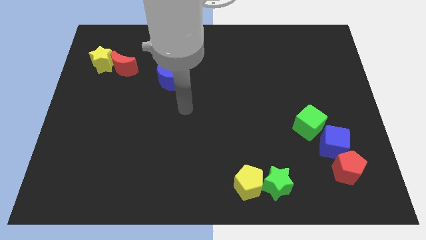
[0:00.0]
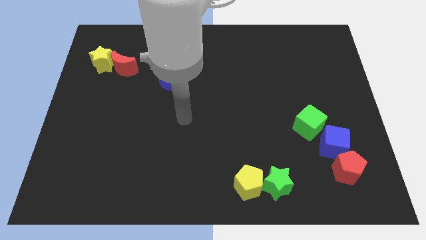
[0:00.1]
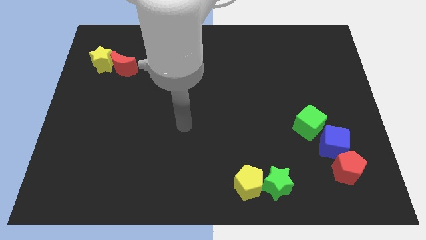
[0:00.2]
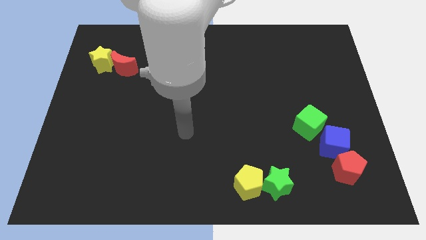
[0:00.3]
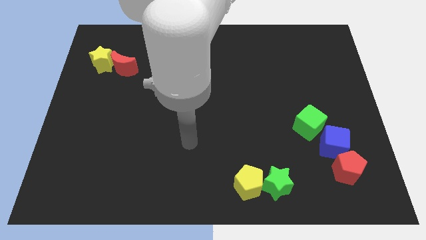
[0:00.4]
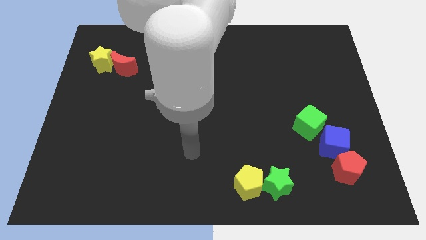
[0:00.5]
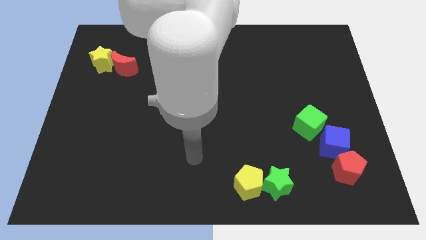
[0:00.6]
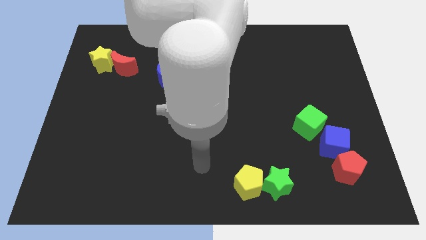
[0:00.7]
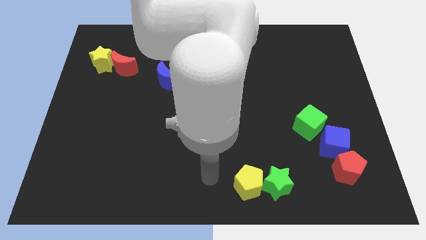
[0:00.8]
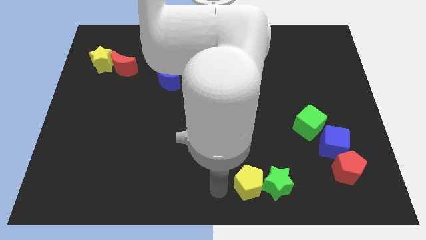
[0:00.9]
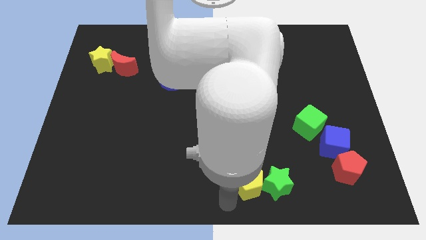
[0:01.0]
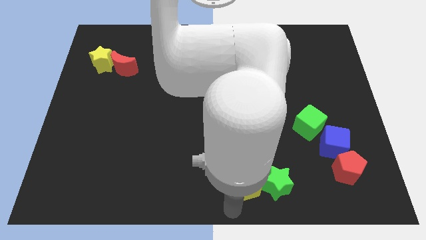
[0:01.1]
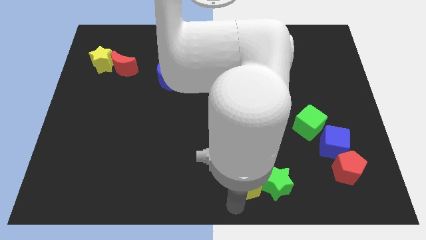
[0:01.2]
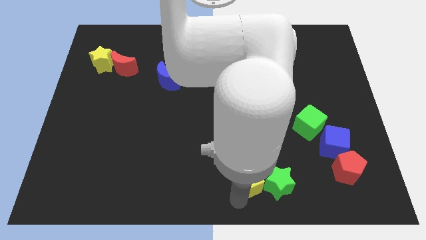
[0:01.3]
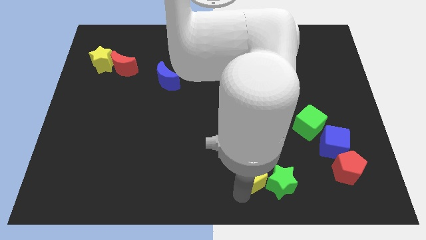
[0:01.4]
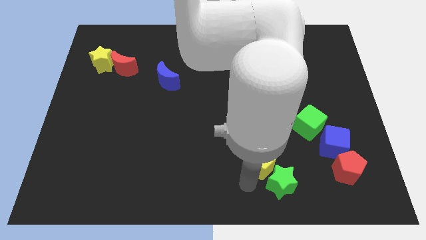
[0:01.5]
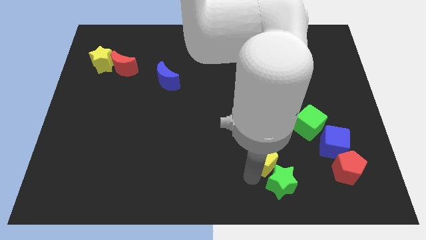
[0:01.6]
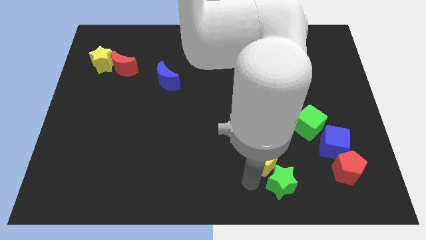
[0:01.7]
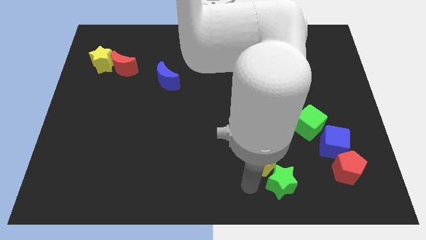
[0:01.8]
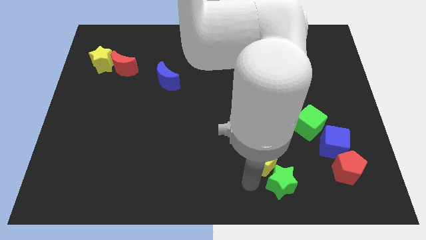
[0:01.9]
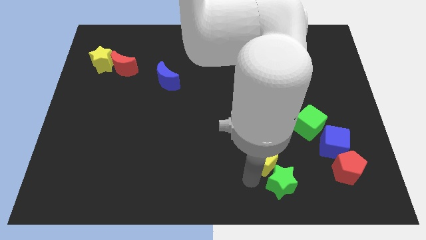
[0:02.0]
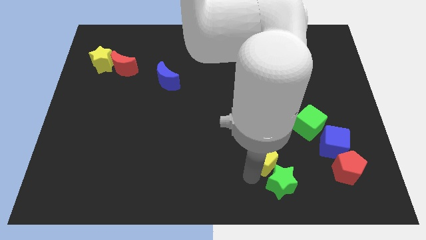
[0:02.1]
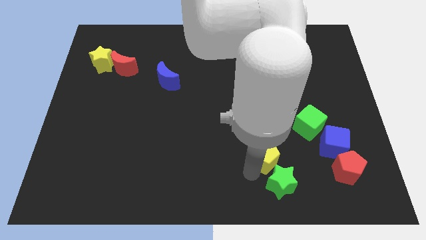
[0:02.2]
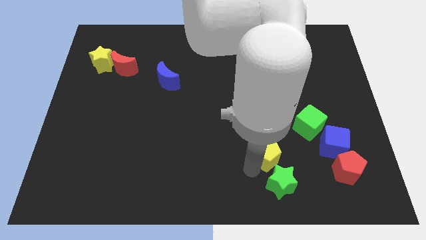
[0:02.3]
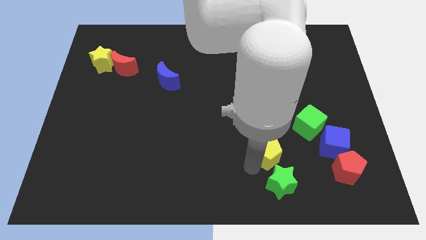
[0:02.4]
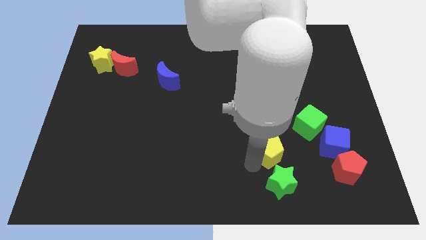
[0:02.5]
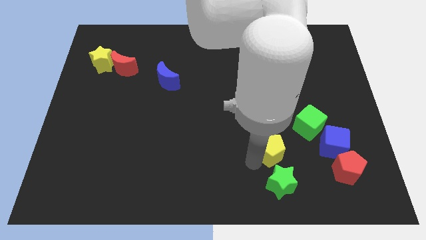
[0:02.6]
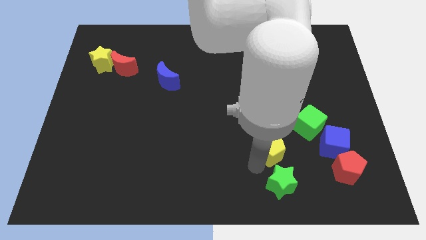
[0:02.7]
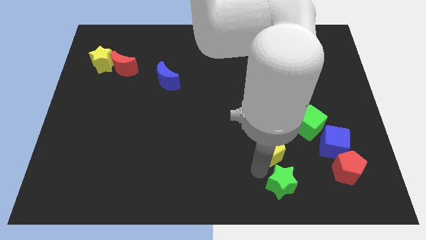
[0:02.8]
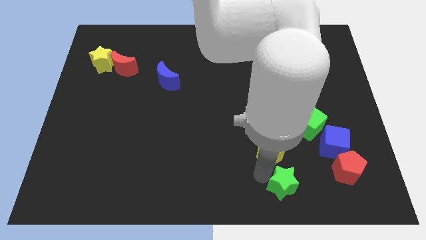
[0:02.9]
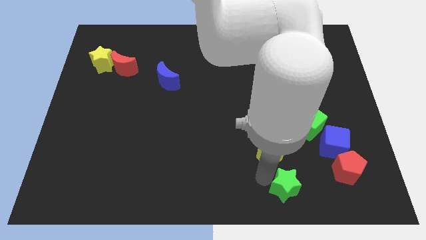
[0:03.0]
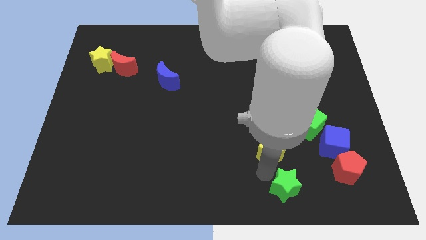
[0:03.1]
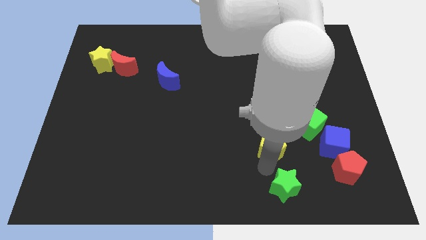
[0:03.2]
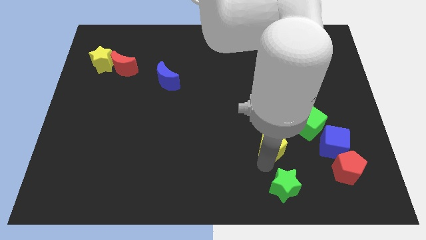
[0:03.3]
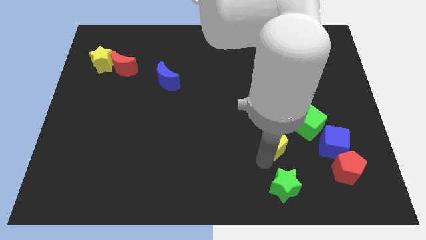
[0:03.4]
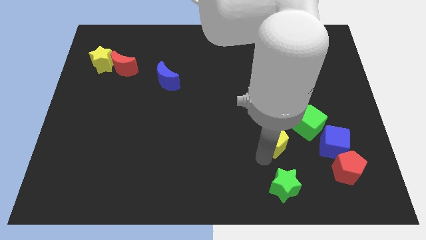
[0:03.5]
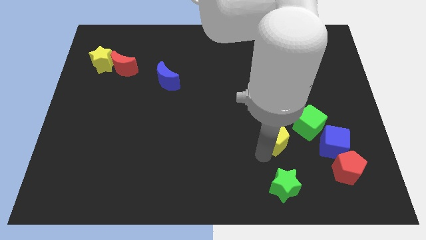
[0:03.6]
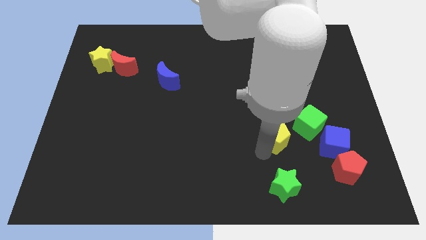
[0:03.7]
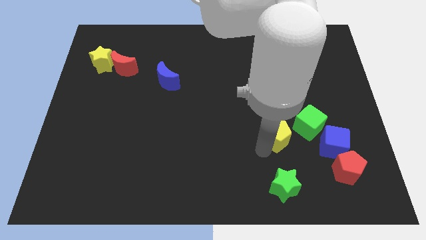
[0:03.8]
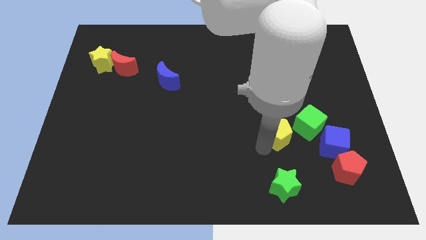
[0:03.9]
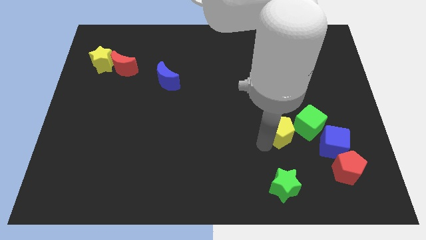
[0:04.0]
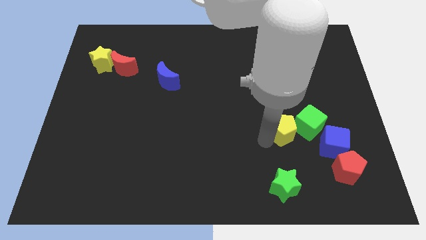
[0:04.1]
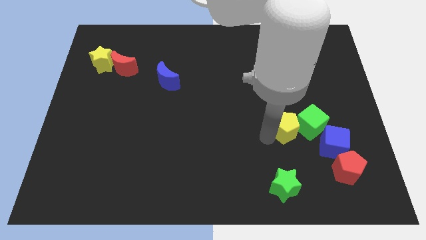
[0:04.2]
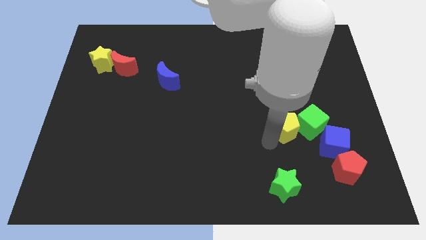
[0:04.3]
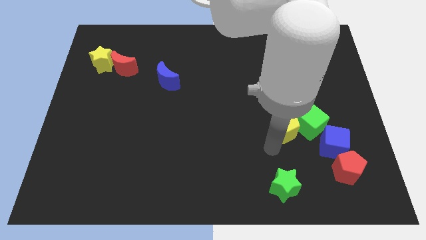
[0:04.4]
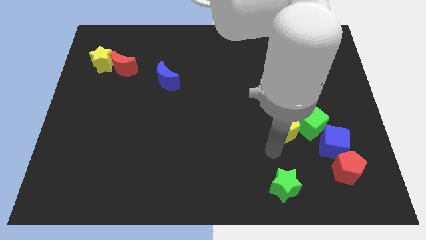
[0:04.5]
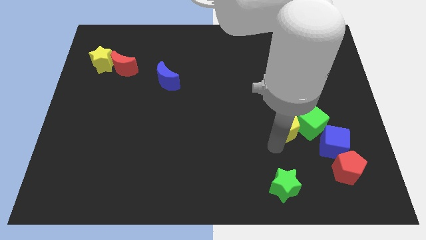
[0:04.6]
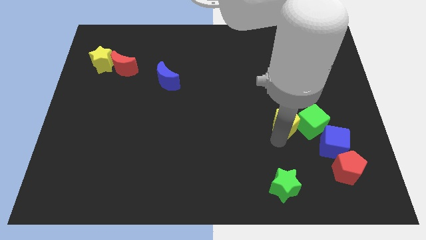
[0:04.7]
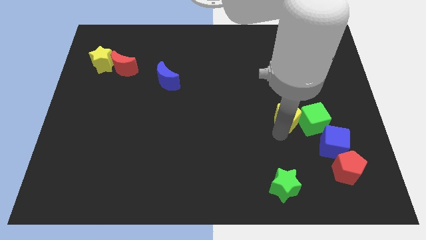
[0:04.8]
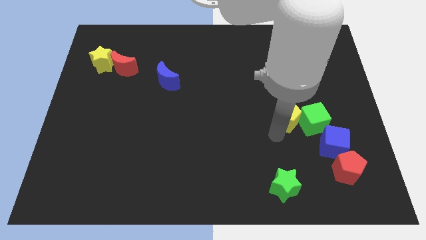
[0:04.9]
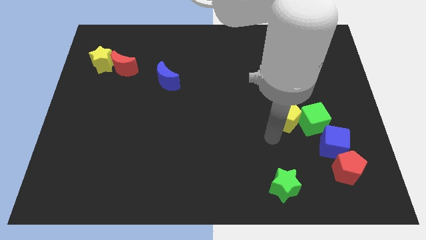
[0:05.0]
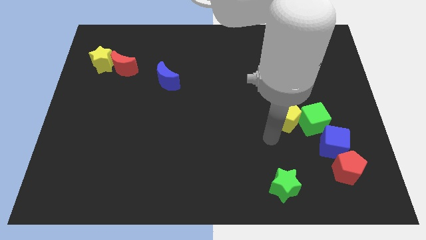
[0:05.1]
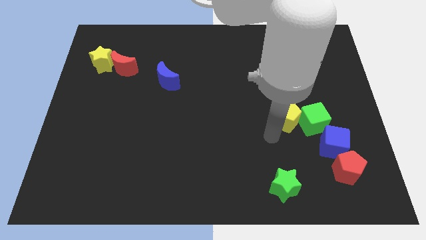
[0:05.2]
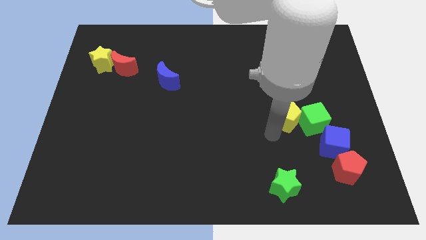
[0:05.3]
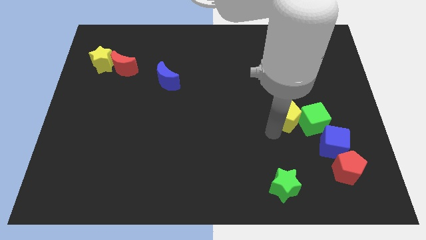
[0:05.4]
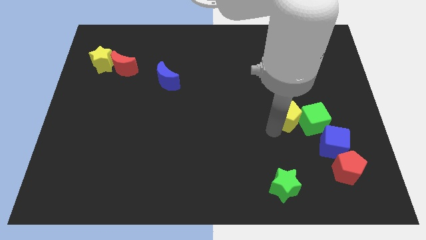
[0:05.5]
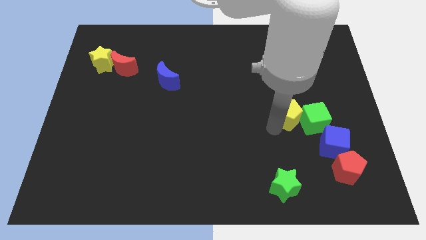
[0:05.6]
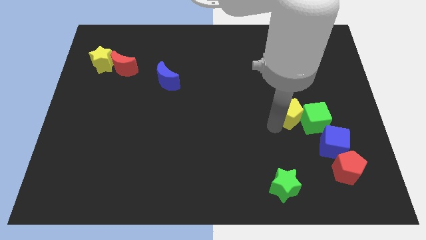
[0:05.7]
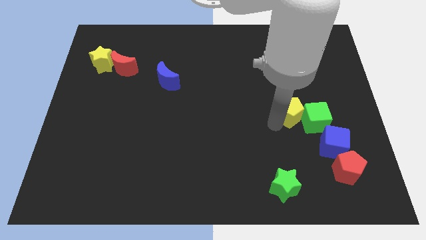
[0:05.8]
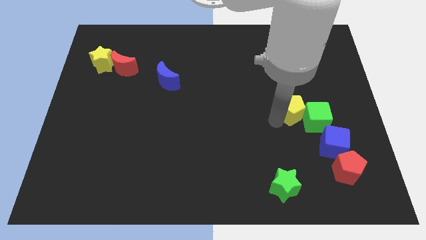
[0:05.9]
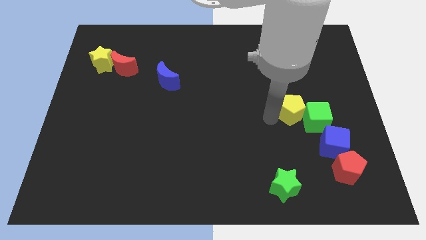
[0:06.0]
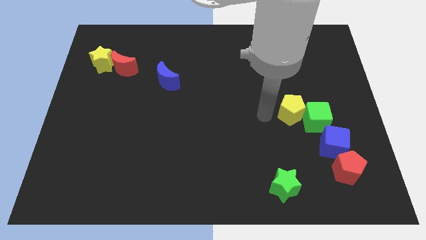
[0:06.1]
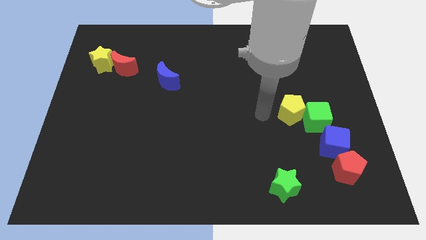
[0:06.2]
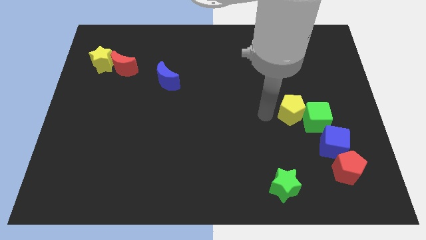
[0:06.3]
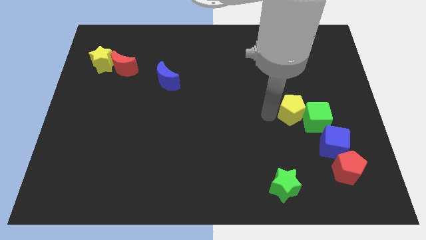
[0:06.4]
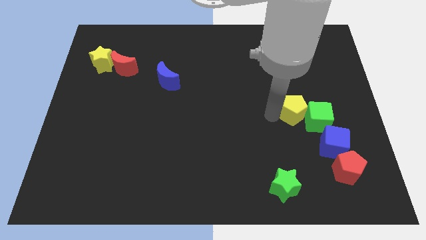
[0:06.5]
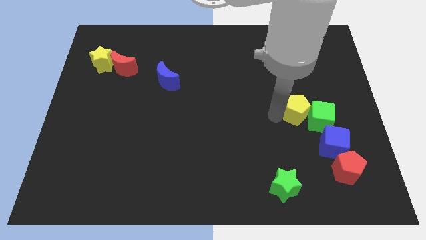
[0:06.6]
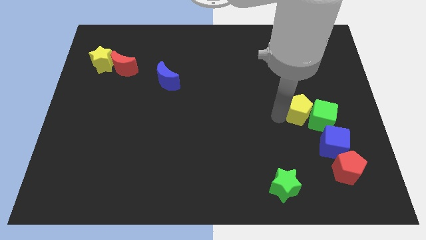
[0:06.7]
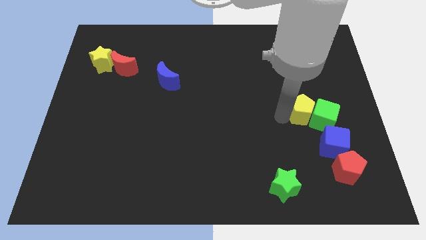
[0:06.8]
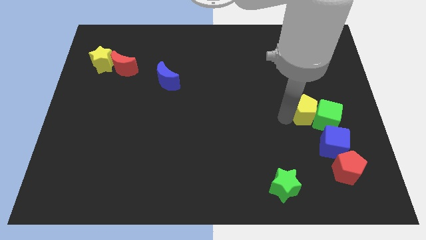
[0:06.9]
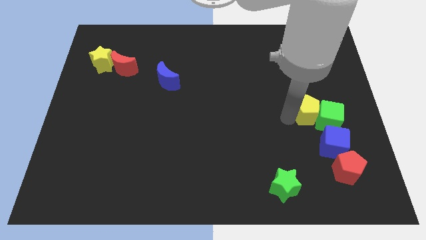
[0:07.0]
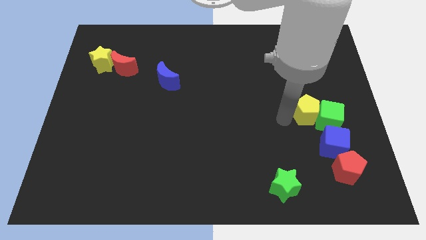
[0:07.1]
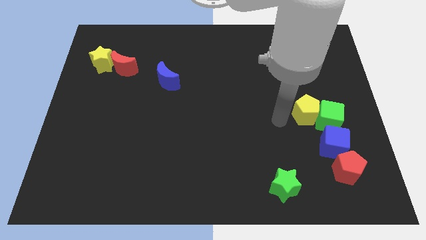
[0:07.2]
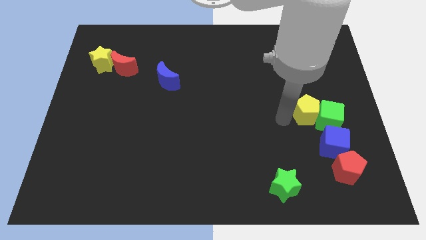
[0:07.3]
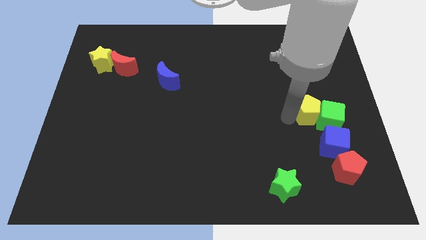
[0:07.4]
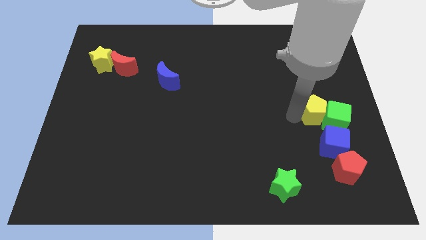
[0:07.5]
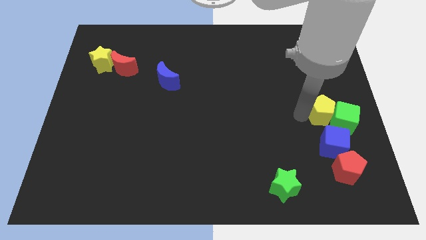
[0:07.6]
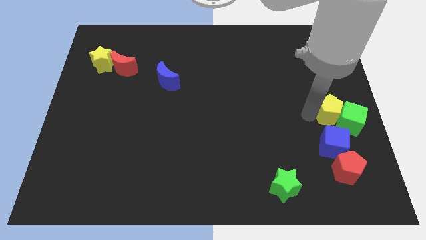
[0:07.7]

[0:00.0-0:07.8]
move the yellow pentagon to the center right

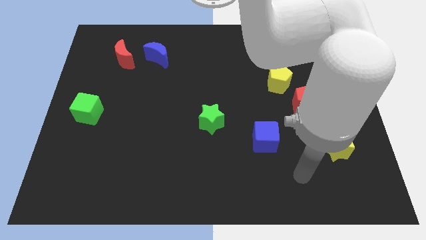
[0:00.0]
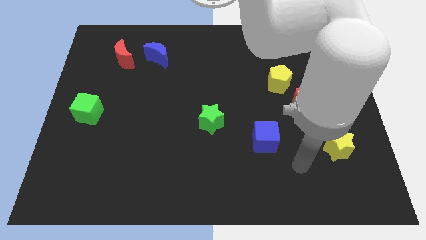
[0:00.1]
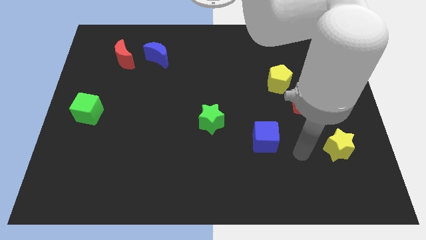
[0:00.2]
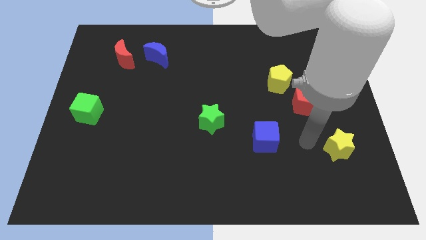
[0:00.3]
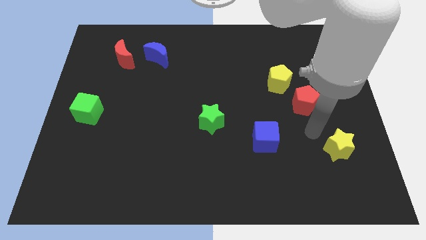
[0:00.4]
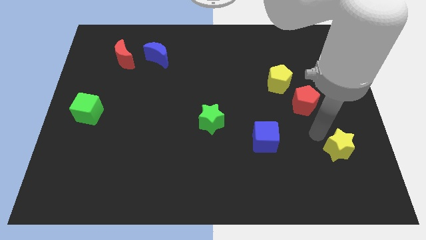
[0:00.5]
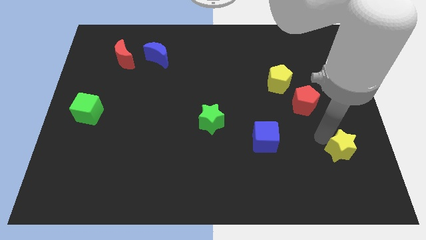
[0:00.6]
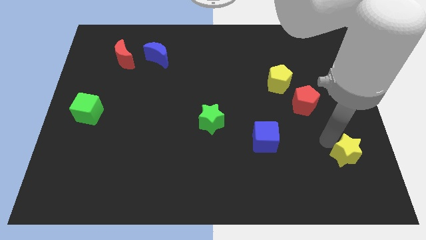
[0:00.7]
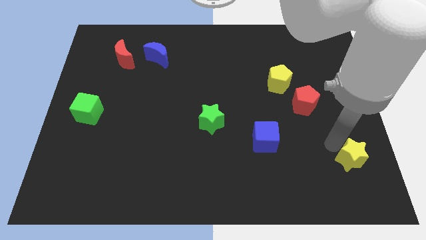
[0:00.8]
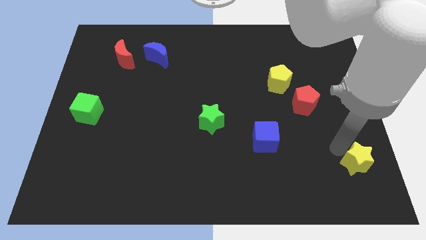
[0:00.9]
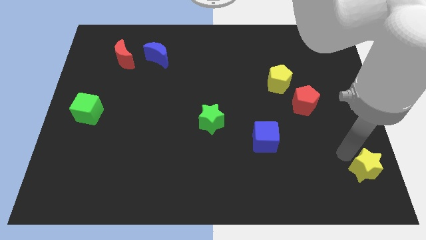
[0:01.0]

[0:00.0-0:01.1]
slide the yellow star to the bottom right corner
